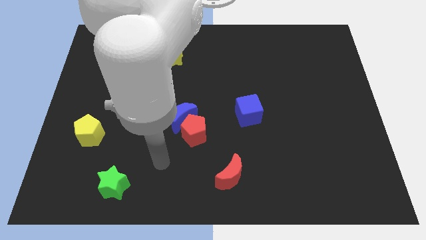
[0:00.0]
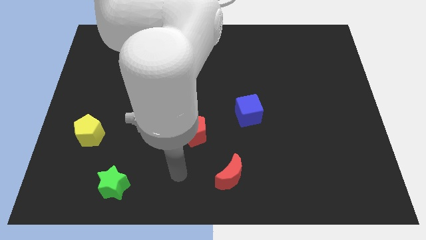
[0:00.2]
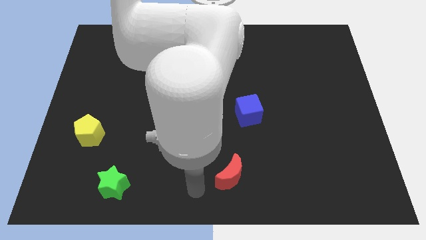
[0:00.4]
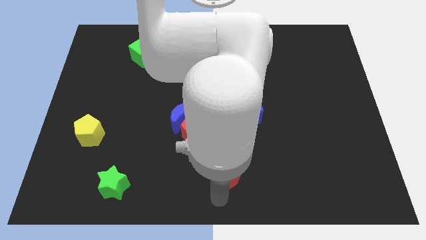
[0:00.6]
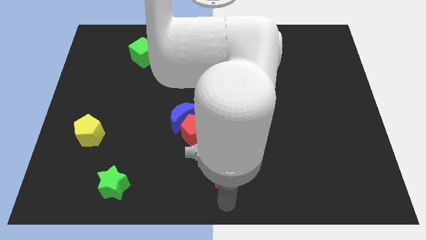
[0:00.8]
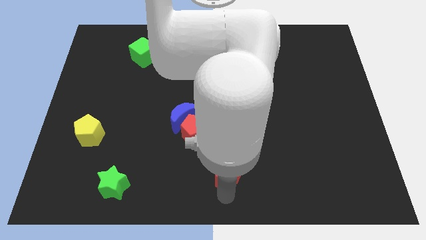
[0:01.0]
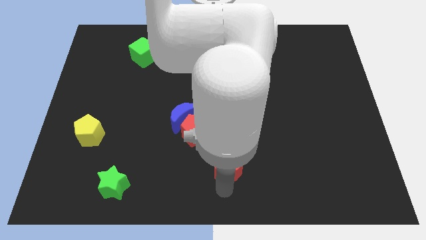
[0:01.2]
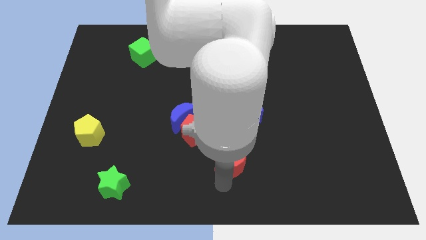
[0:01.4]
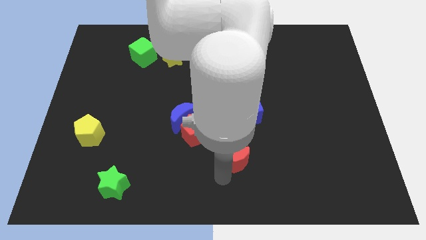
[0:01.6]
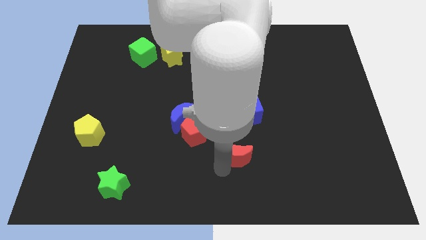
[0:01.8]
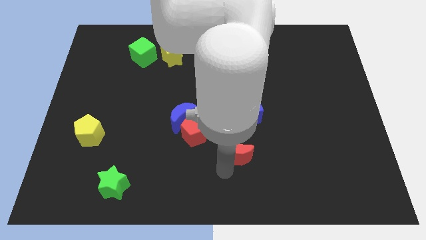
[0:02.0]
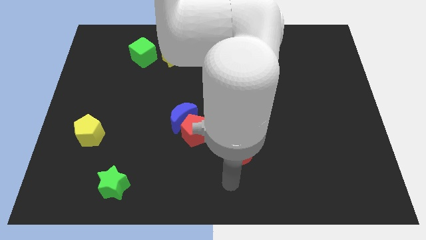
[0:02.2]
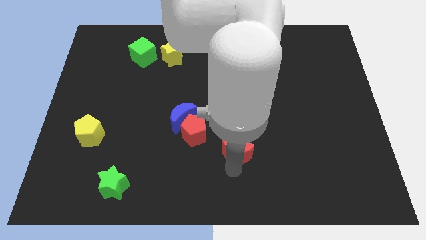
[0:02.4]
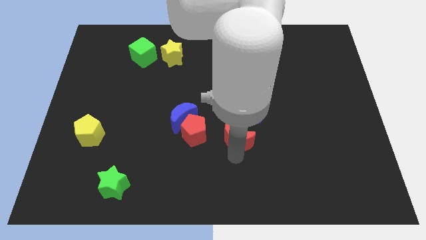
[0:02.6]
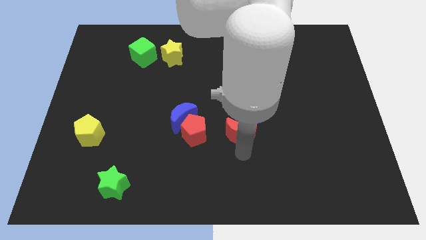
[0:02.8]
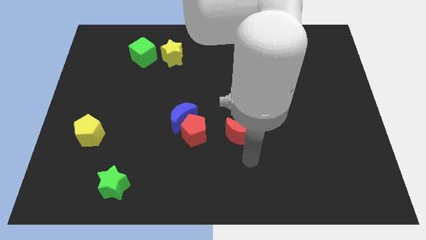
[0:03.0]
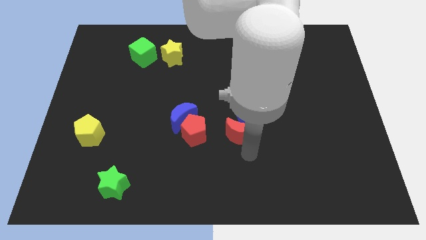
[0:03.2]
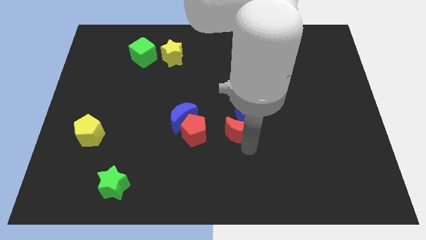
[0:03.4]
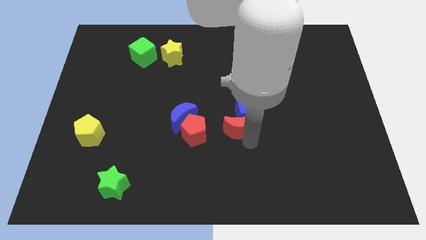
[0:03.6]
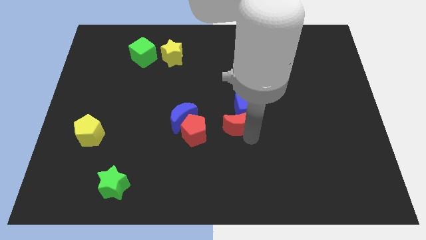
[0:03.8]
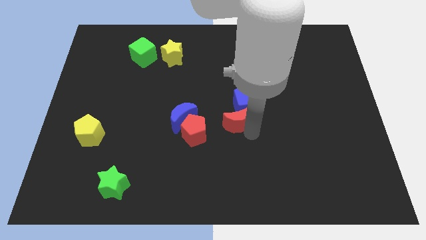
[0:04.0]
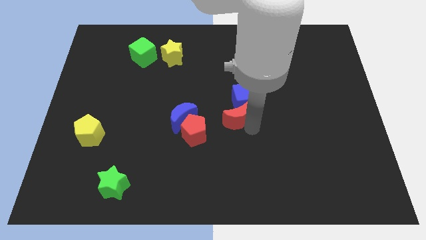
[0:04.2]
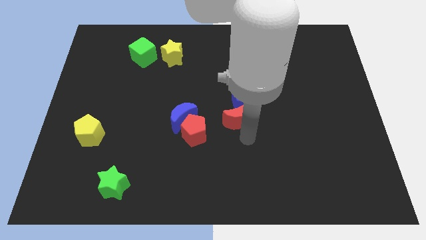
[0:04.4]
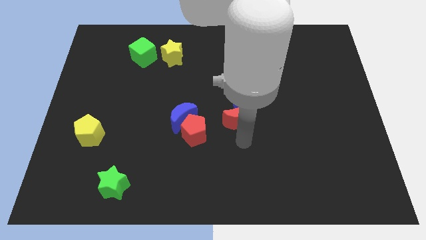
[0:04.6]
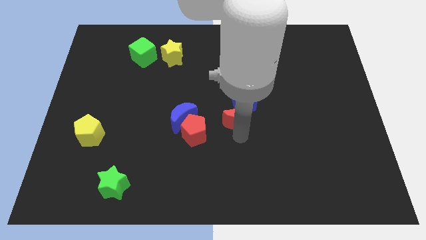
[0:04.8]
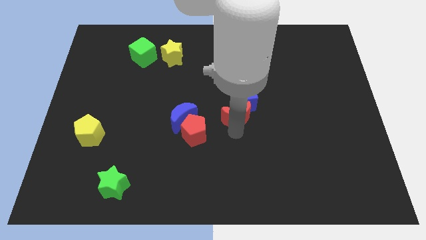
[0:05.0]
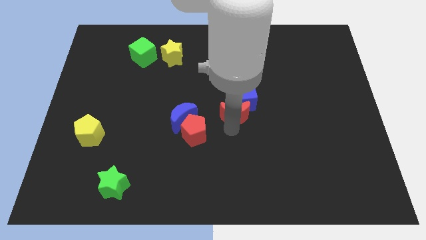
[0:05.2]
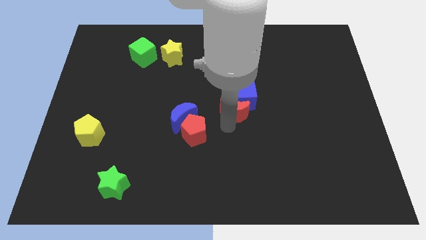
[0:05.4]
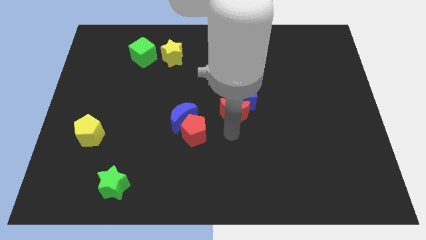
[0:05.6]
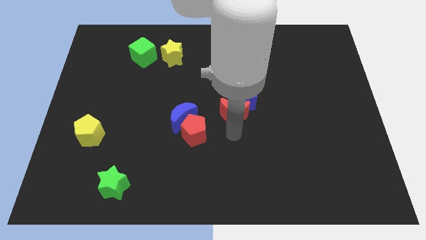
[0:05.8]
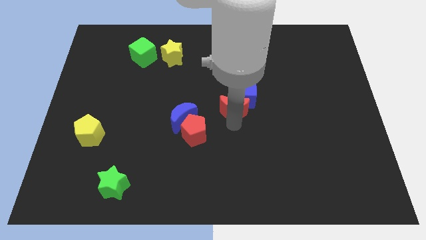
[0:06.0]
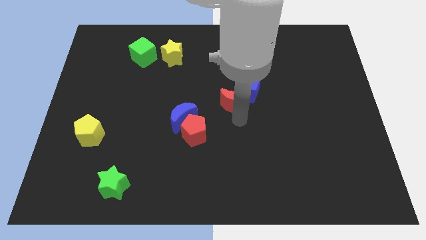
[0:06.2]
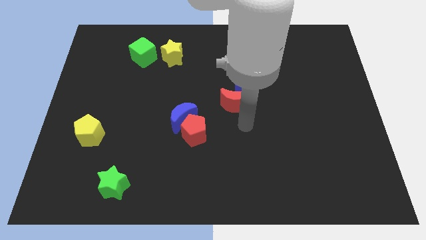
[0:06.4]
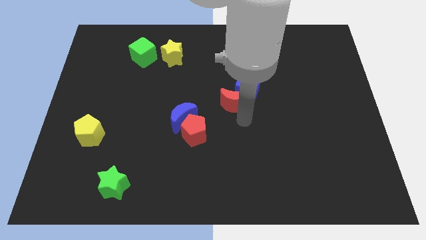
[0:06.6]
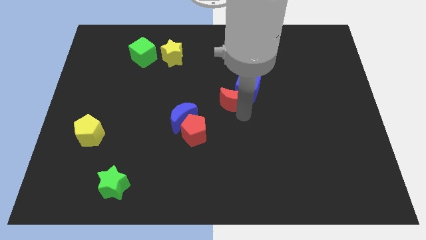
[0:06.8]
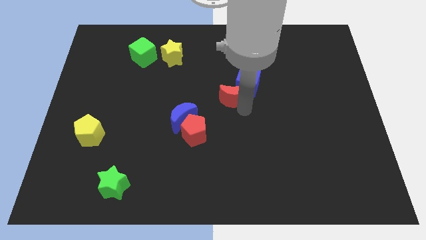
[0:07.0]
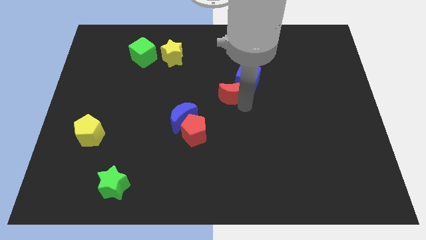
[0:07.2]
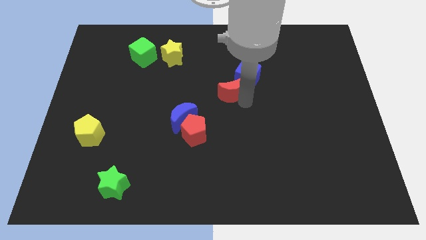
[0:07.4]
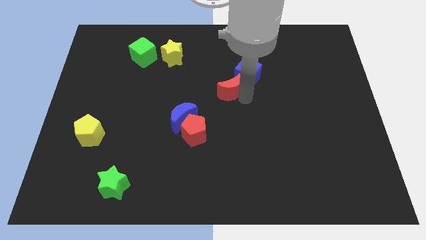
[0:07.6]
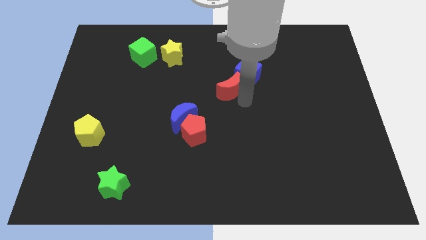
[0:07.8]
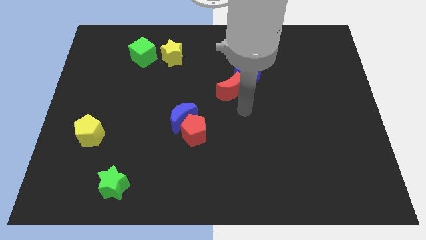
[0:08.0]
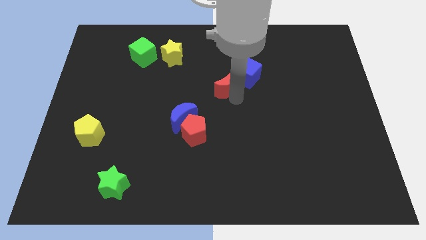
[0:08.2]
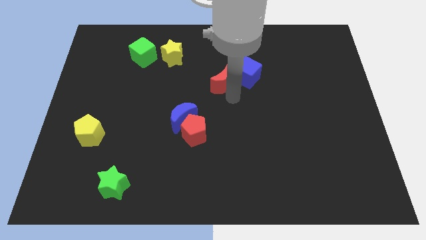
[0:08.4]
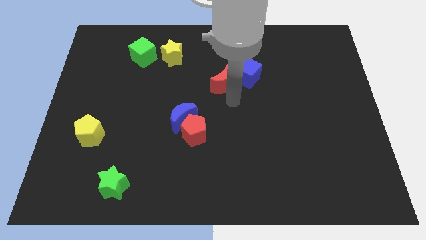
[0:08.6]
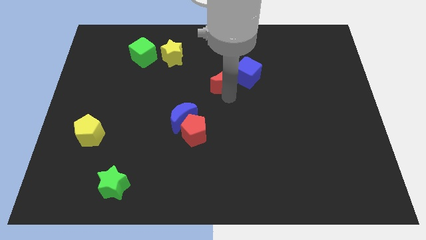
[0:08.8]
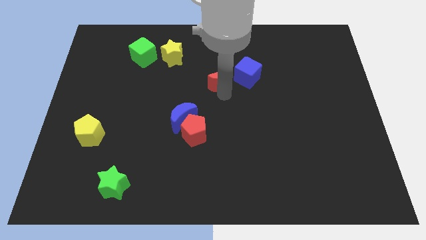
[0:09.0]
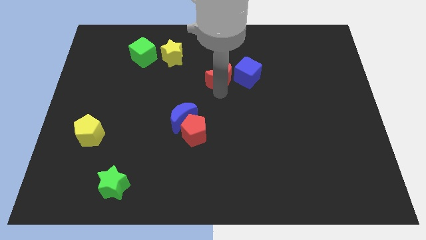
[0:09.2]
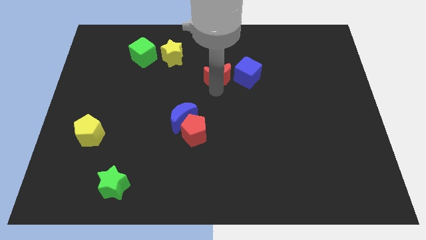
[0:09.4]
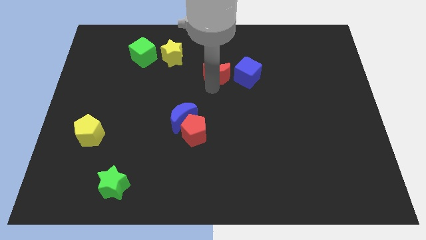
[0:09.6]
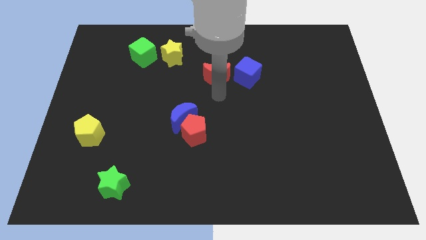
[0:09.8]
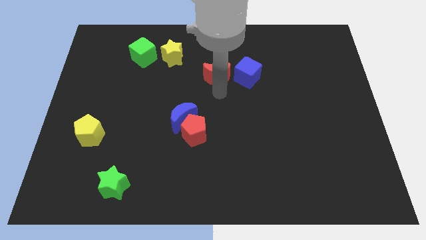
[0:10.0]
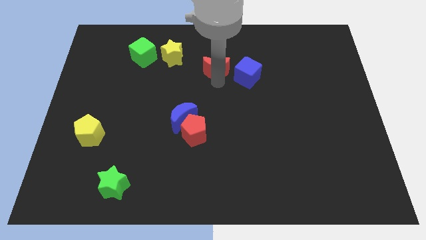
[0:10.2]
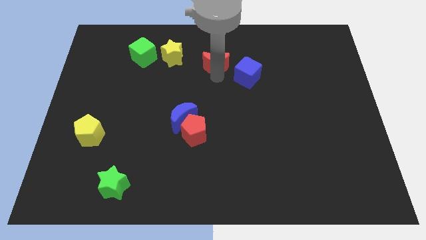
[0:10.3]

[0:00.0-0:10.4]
push the red moon just right of the yellow star

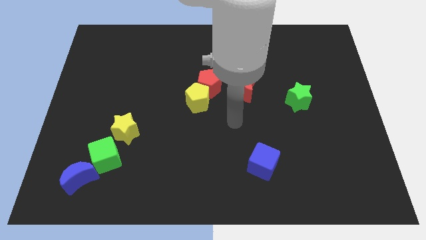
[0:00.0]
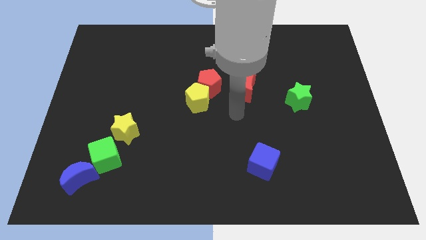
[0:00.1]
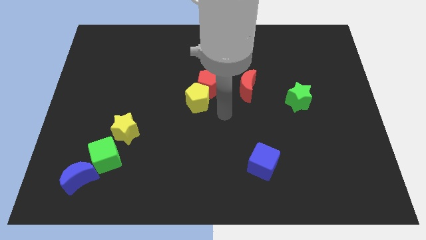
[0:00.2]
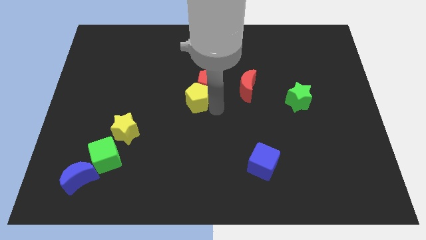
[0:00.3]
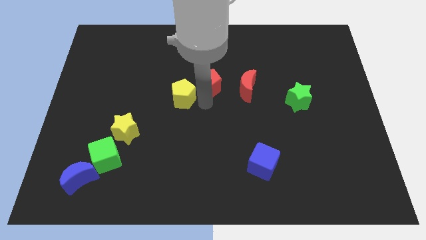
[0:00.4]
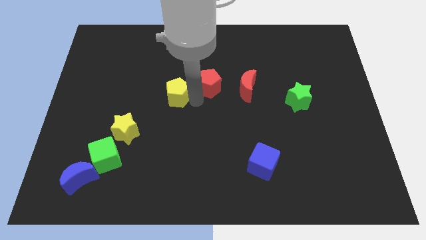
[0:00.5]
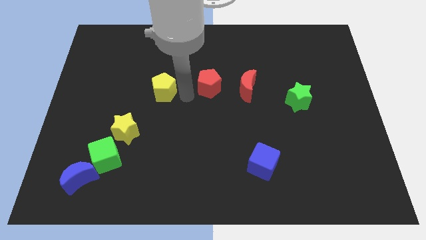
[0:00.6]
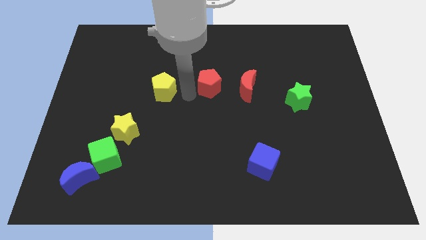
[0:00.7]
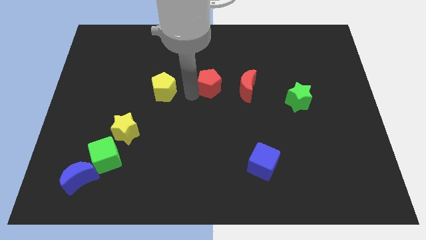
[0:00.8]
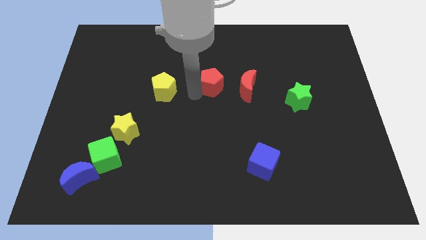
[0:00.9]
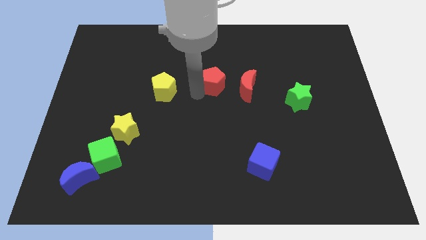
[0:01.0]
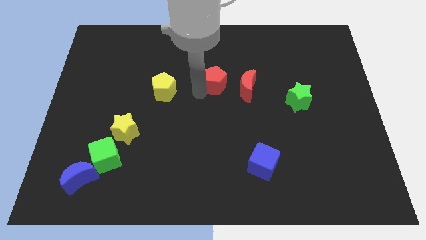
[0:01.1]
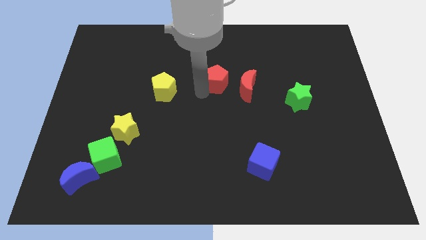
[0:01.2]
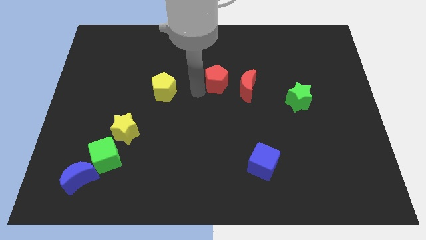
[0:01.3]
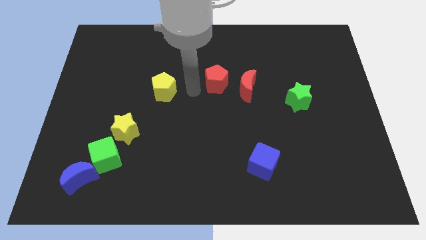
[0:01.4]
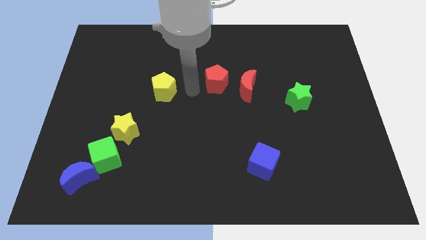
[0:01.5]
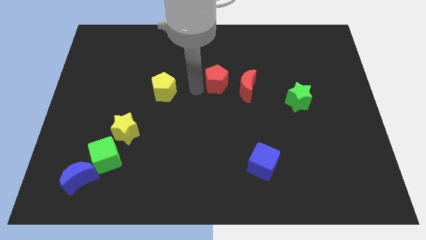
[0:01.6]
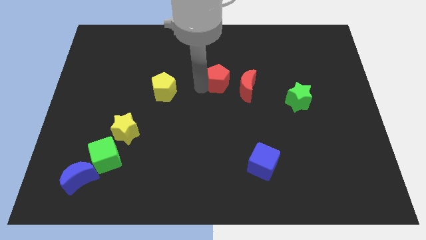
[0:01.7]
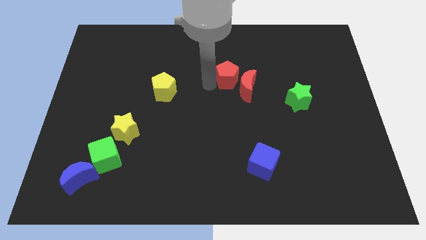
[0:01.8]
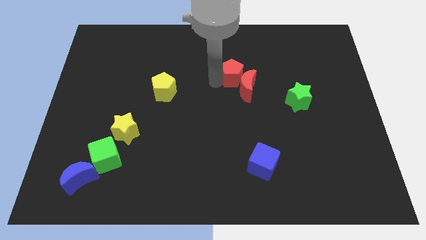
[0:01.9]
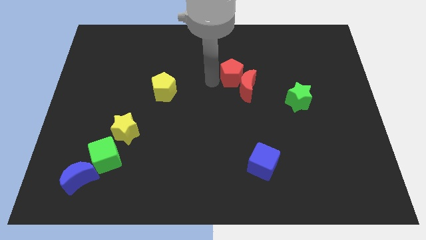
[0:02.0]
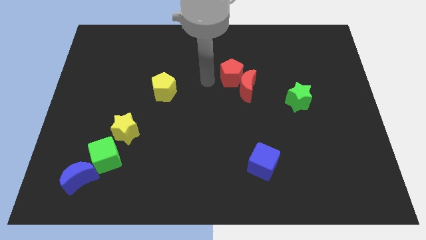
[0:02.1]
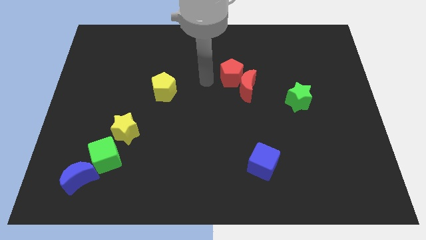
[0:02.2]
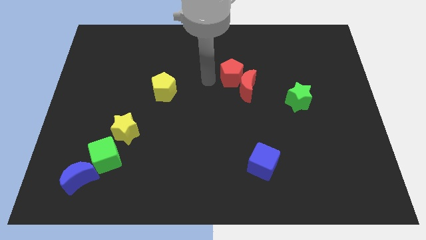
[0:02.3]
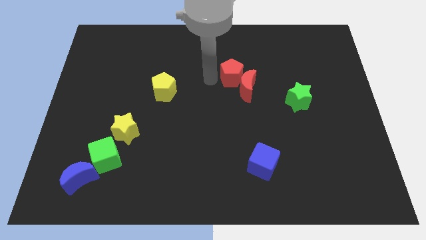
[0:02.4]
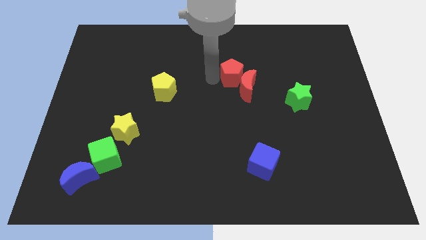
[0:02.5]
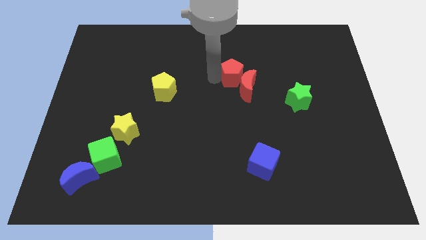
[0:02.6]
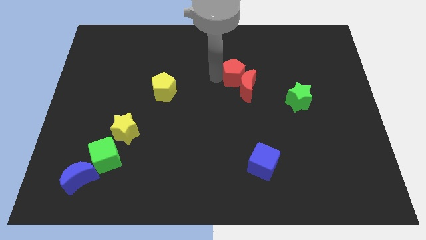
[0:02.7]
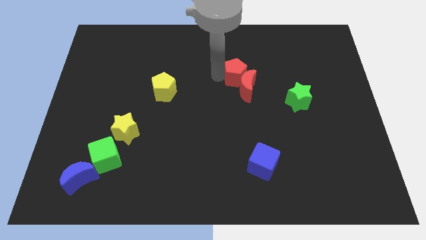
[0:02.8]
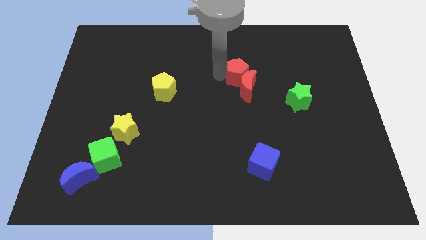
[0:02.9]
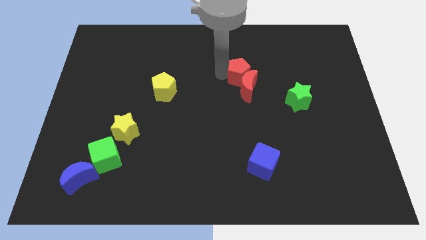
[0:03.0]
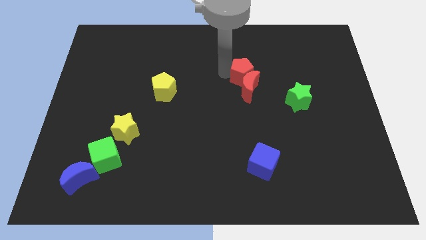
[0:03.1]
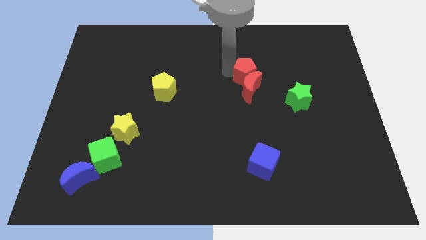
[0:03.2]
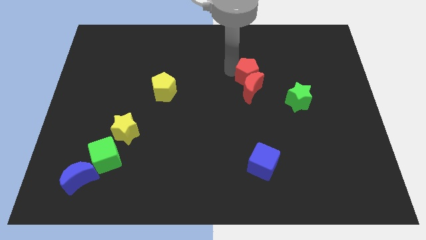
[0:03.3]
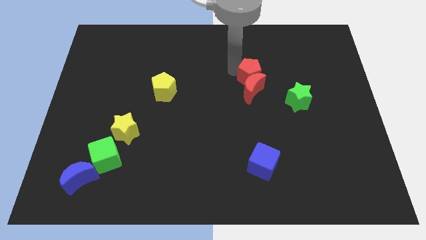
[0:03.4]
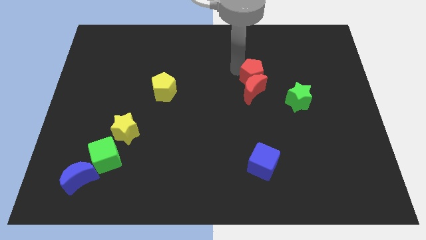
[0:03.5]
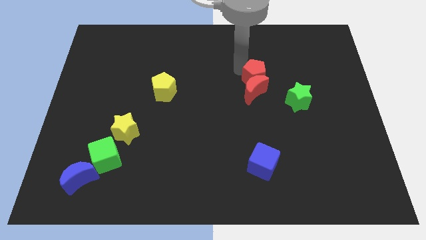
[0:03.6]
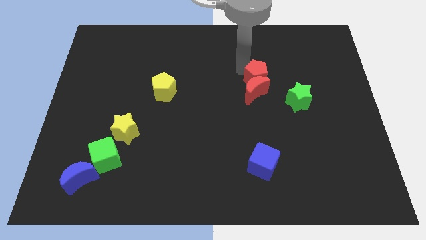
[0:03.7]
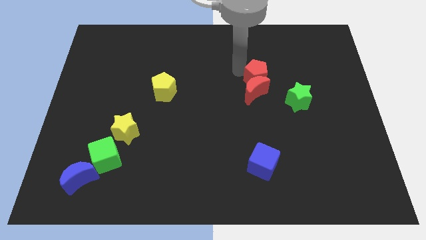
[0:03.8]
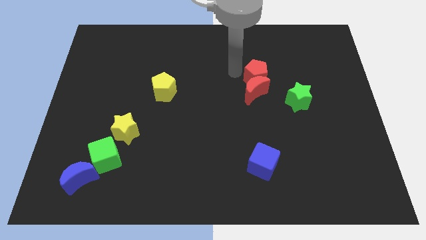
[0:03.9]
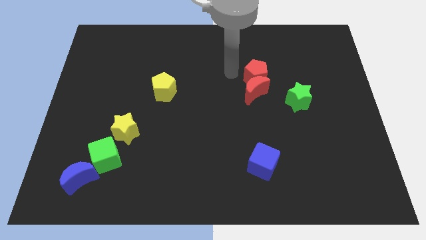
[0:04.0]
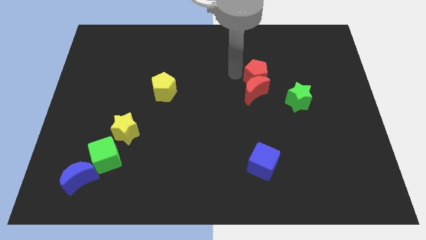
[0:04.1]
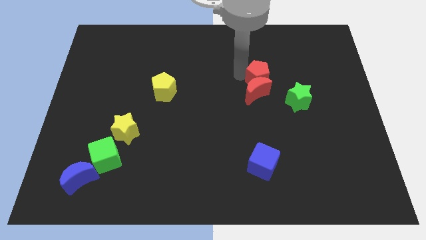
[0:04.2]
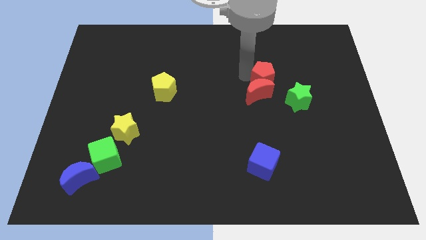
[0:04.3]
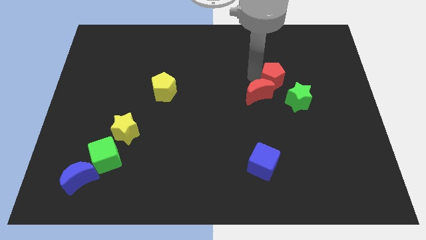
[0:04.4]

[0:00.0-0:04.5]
put the red pentagon right of the red moon
